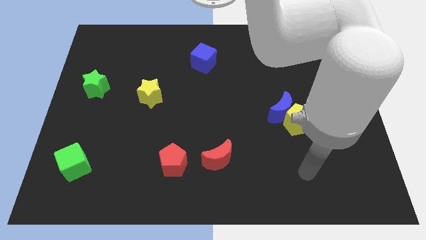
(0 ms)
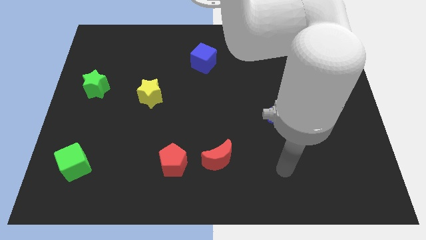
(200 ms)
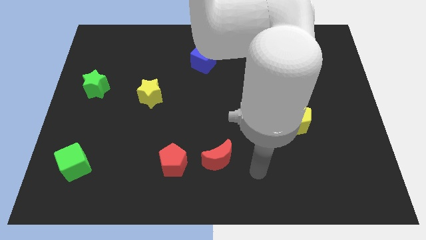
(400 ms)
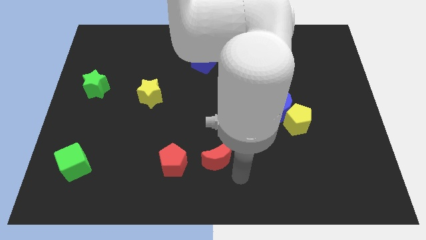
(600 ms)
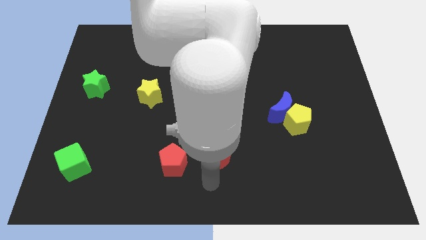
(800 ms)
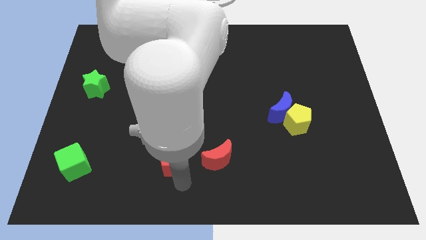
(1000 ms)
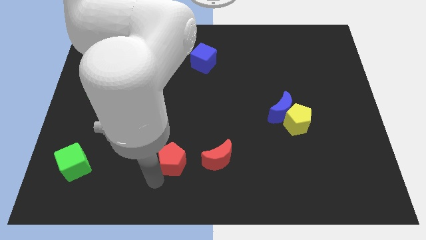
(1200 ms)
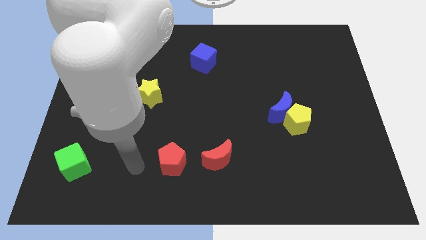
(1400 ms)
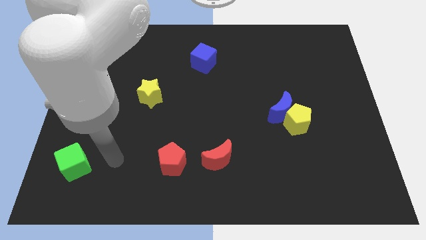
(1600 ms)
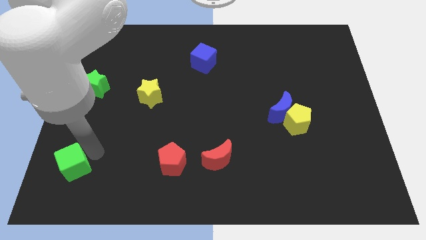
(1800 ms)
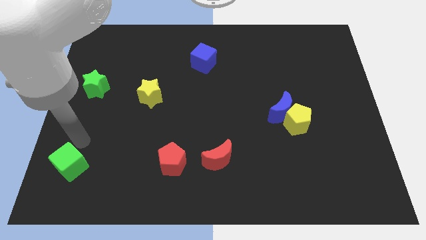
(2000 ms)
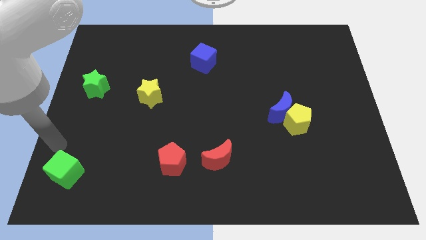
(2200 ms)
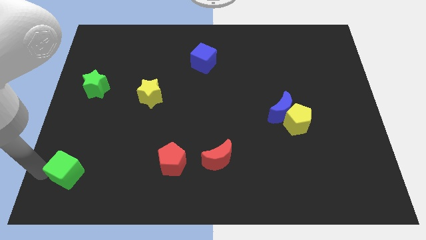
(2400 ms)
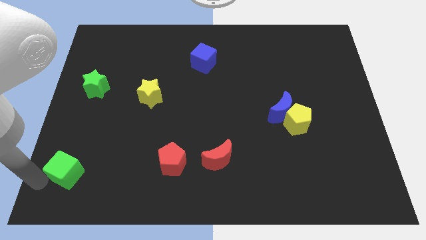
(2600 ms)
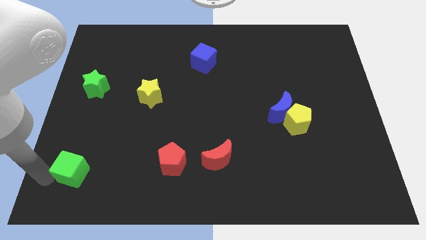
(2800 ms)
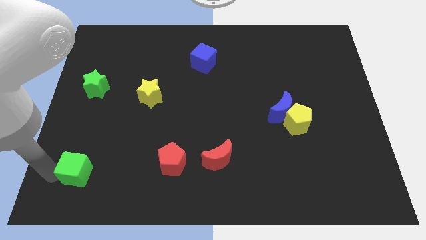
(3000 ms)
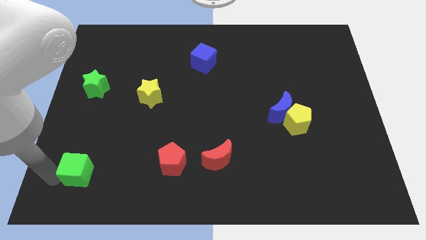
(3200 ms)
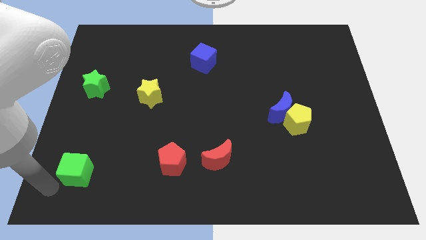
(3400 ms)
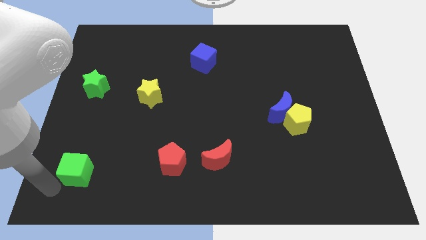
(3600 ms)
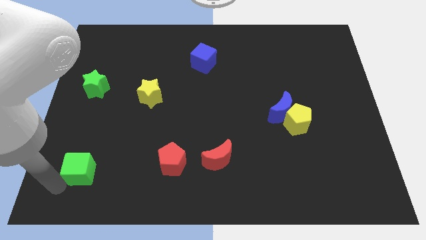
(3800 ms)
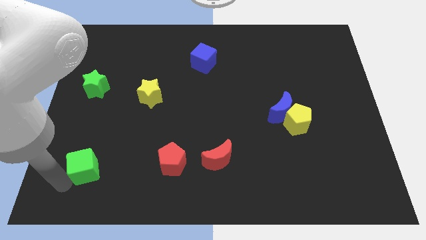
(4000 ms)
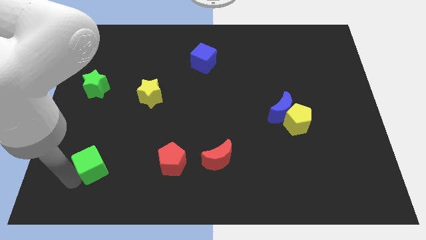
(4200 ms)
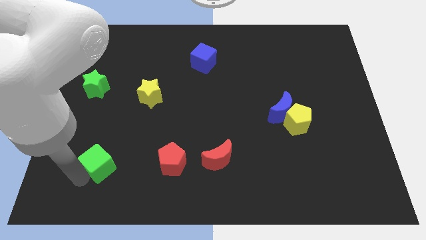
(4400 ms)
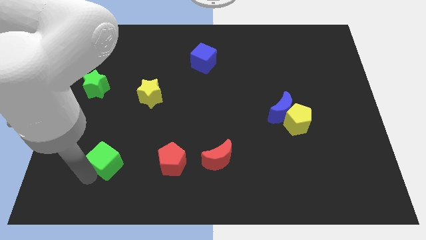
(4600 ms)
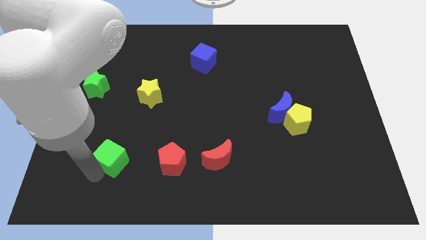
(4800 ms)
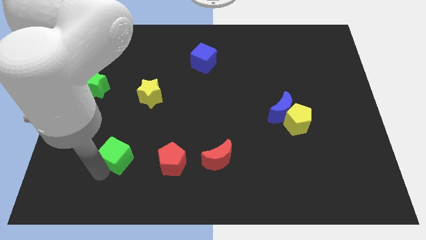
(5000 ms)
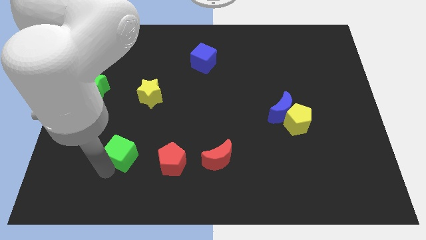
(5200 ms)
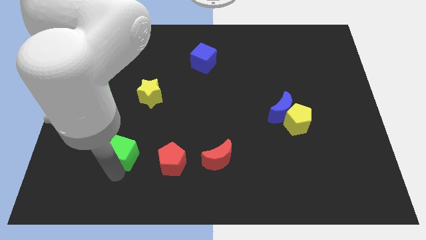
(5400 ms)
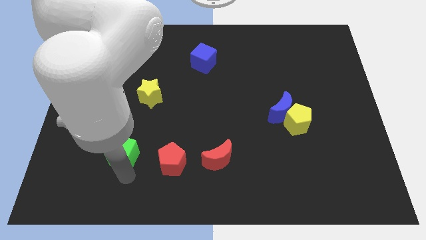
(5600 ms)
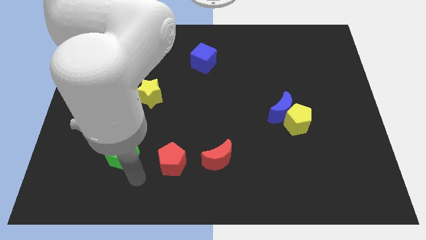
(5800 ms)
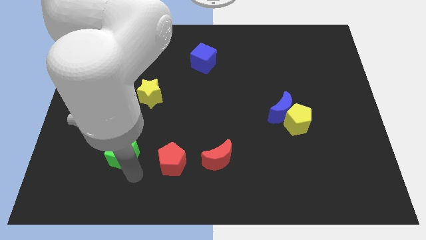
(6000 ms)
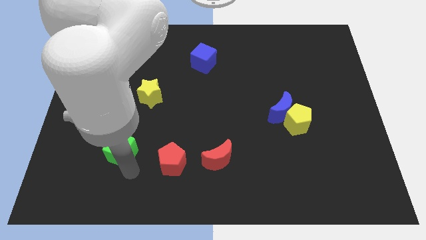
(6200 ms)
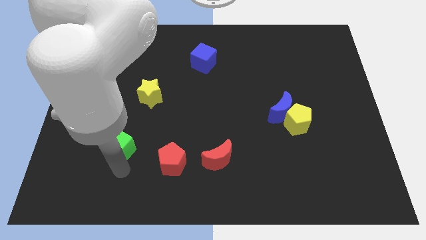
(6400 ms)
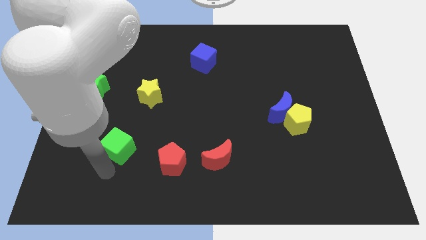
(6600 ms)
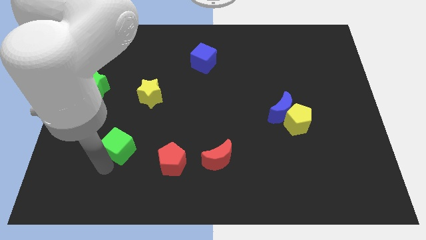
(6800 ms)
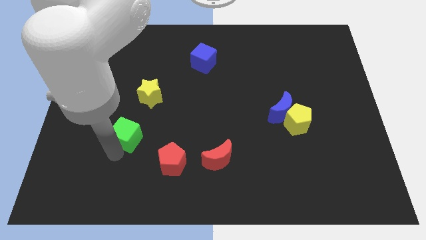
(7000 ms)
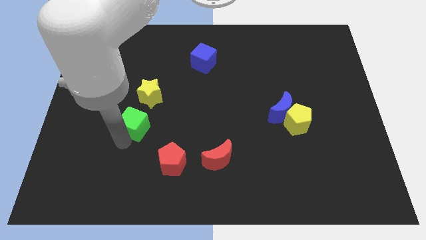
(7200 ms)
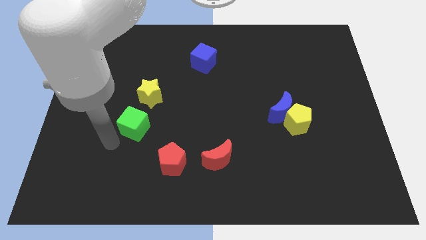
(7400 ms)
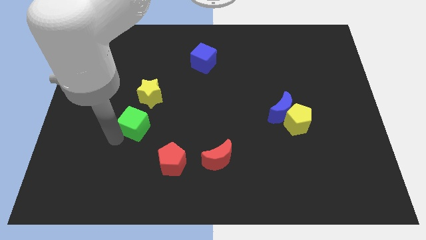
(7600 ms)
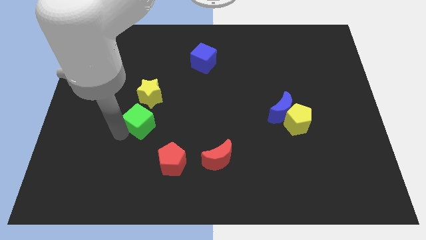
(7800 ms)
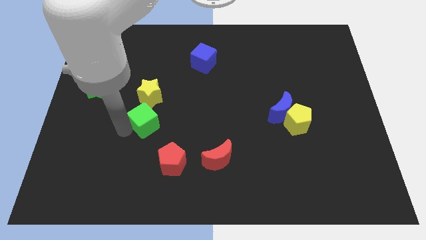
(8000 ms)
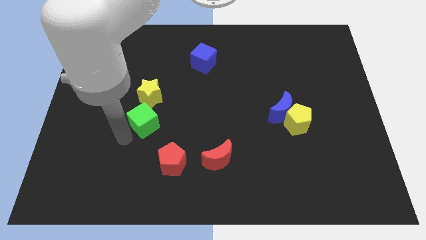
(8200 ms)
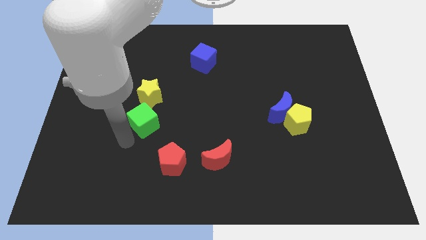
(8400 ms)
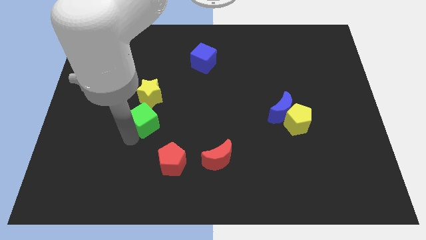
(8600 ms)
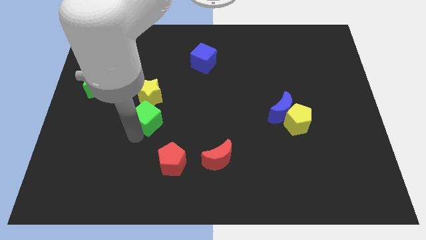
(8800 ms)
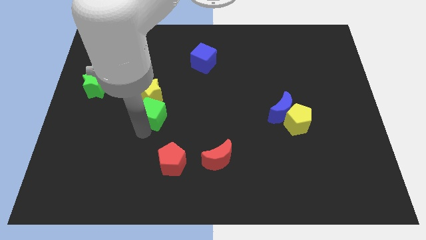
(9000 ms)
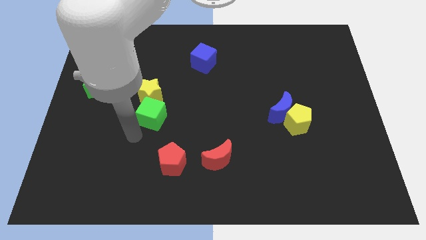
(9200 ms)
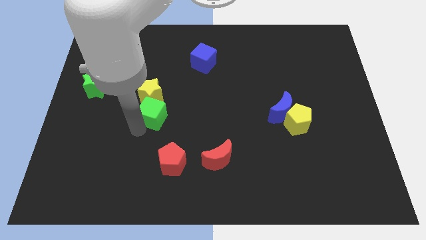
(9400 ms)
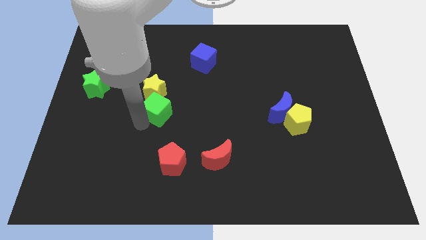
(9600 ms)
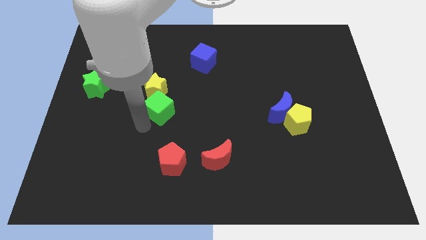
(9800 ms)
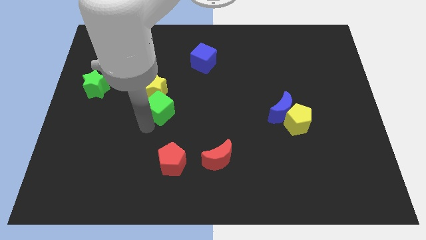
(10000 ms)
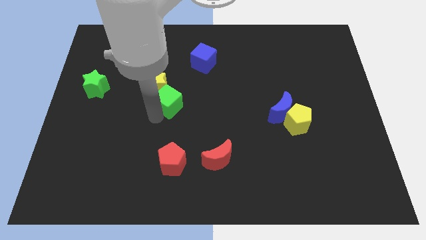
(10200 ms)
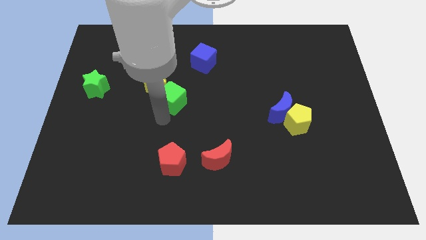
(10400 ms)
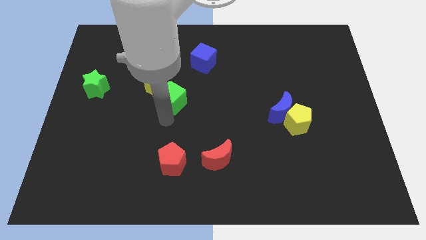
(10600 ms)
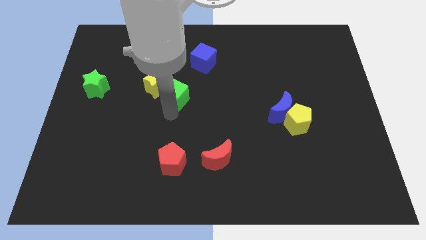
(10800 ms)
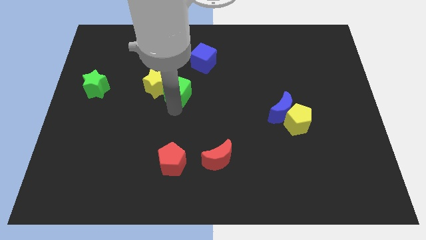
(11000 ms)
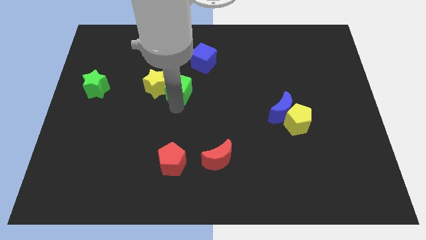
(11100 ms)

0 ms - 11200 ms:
move the green cube to the bottom left side of the blue cube

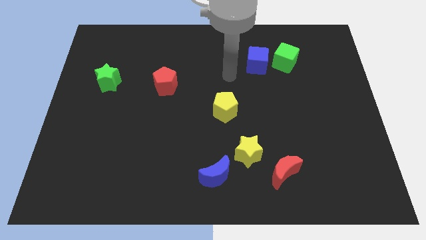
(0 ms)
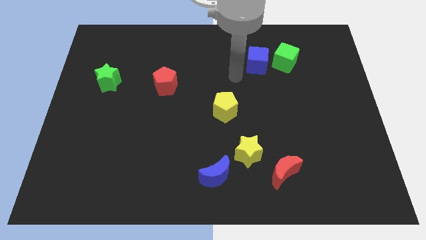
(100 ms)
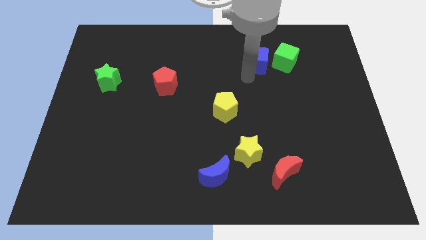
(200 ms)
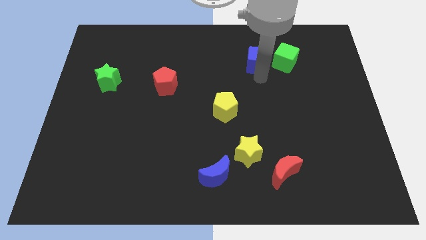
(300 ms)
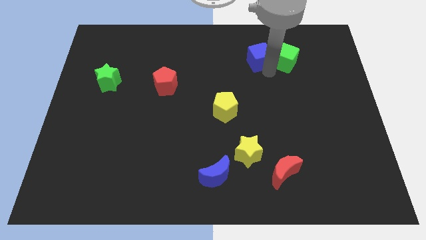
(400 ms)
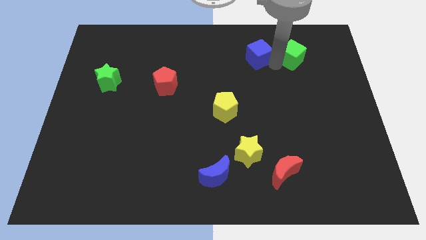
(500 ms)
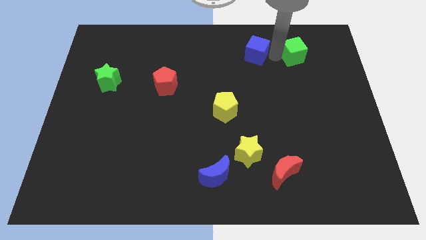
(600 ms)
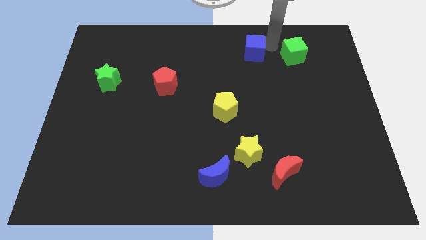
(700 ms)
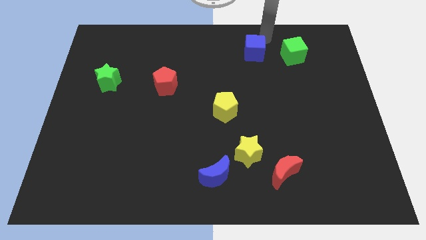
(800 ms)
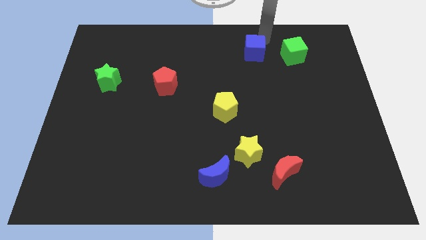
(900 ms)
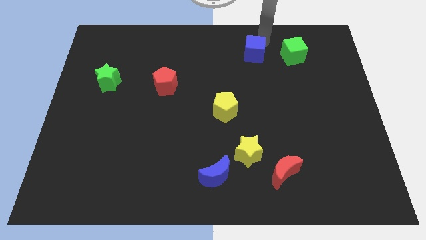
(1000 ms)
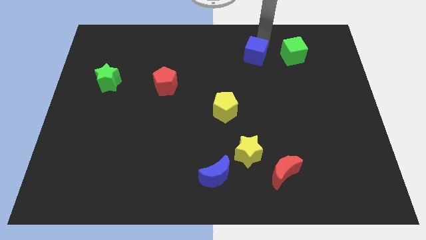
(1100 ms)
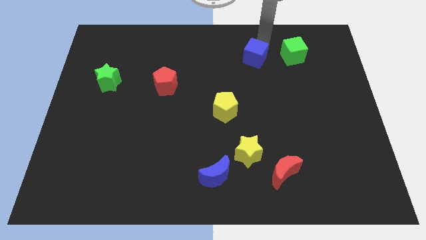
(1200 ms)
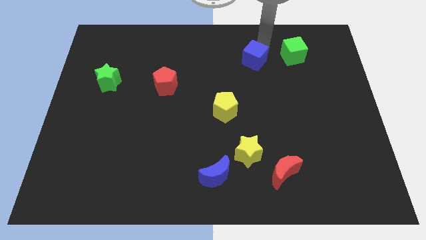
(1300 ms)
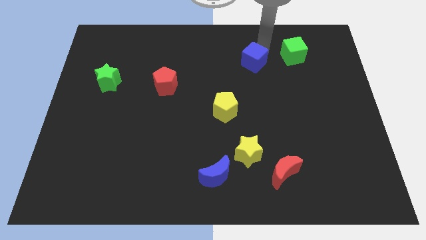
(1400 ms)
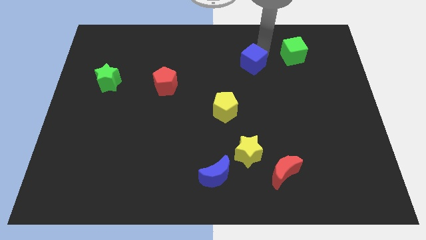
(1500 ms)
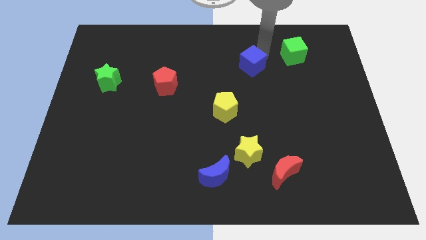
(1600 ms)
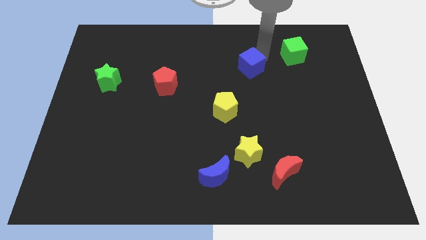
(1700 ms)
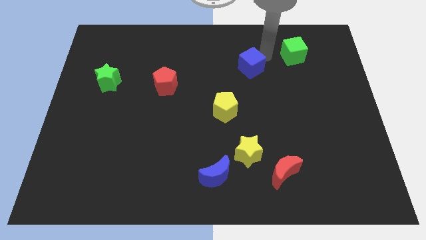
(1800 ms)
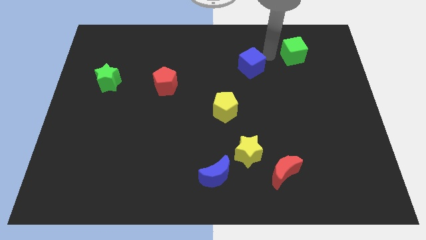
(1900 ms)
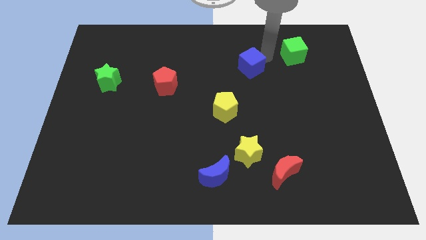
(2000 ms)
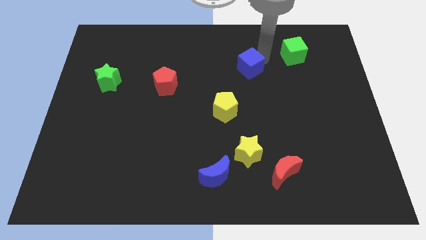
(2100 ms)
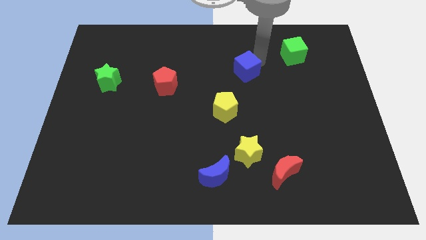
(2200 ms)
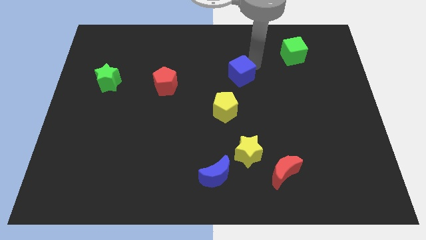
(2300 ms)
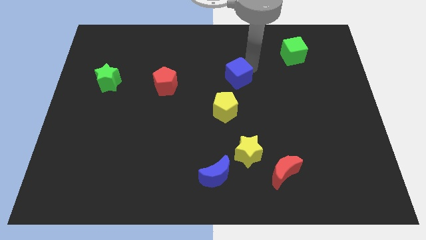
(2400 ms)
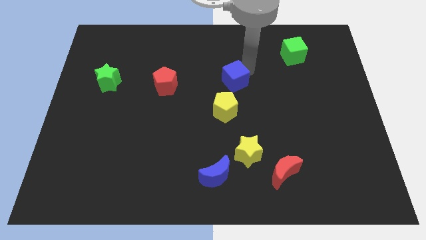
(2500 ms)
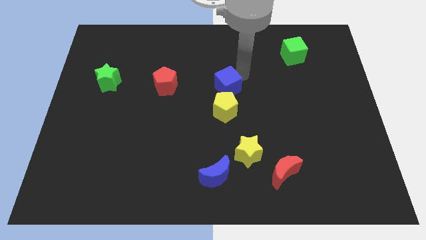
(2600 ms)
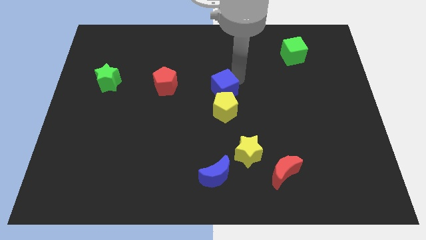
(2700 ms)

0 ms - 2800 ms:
push the blue cube to the top left of the yellow pentagon
